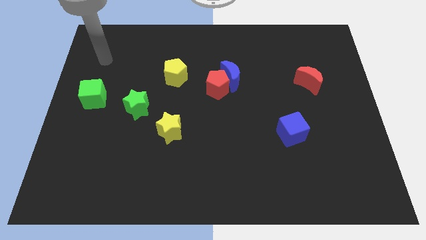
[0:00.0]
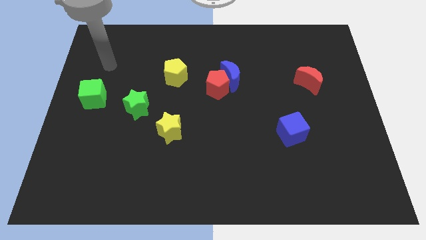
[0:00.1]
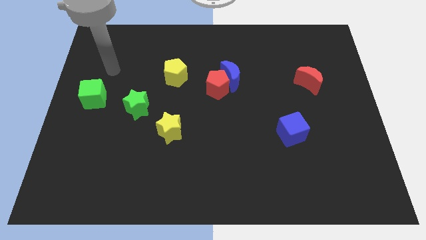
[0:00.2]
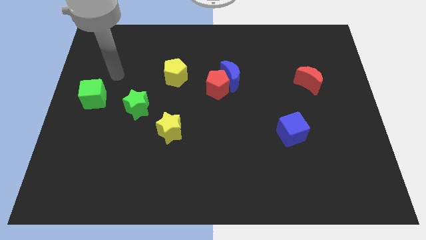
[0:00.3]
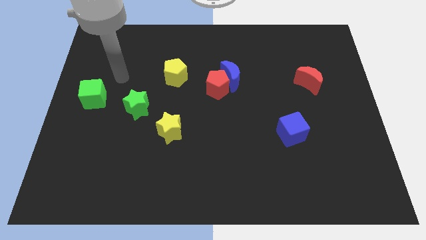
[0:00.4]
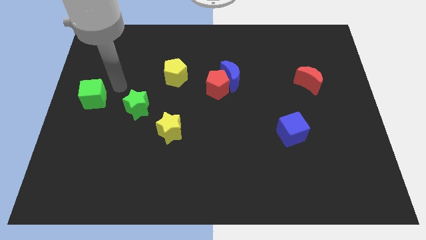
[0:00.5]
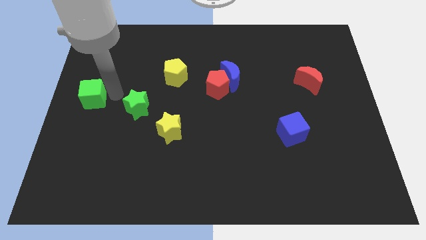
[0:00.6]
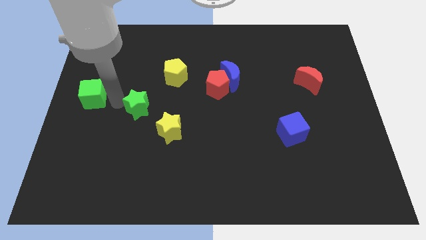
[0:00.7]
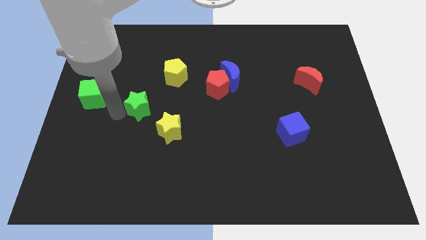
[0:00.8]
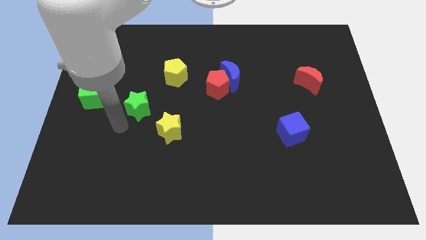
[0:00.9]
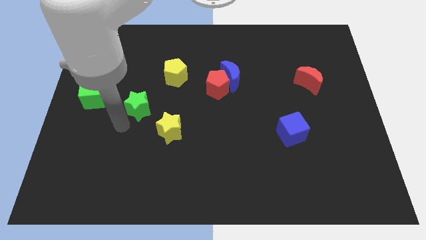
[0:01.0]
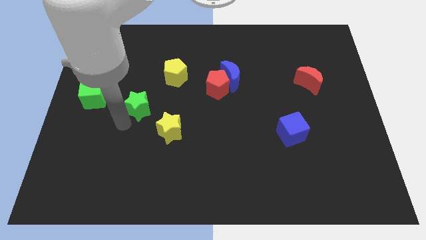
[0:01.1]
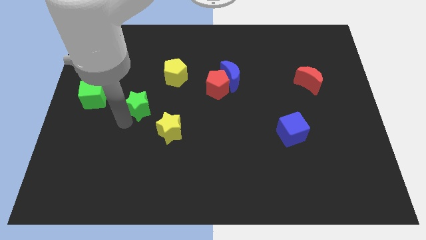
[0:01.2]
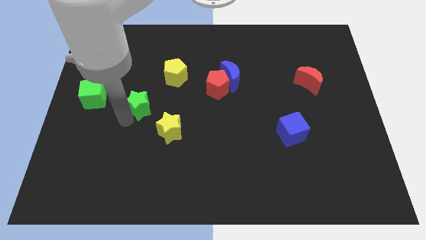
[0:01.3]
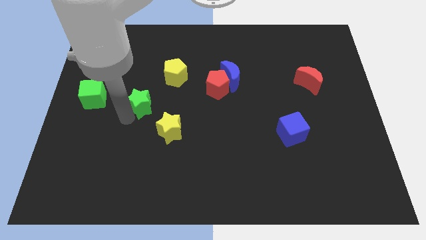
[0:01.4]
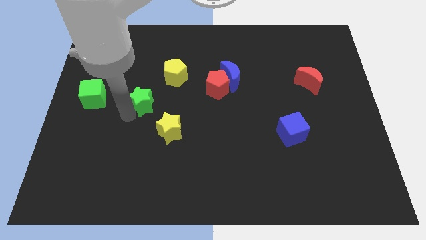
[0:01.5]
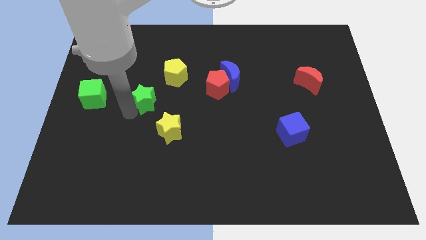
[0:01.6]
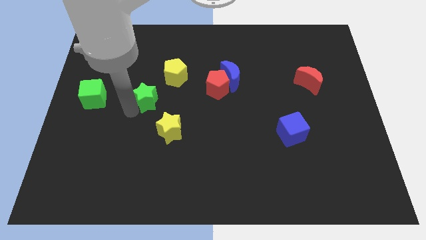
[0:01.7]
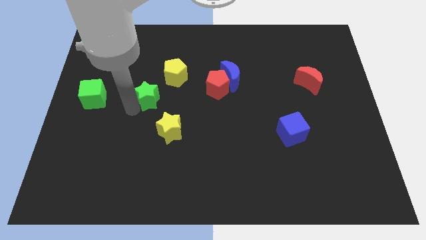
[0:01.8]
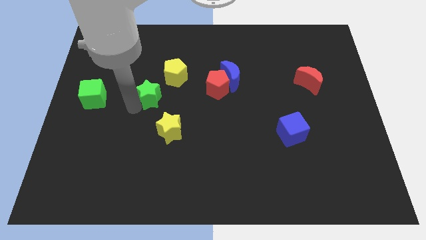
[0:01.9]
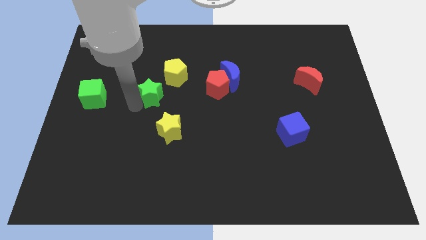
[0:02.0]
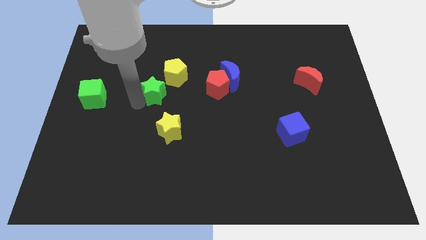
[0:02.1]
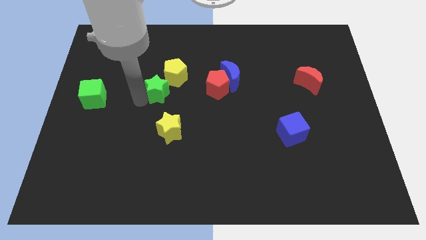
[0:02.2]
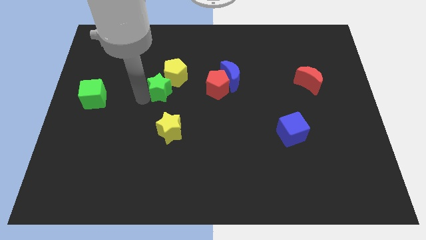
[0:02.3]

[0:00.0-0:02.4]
push the green star upwards and then to the right a little

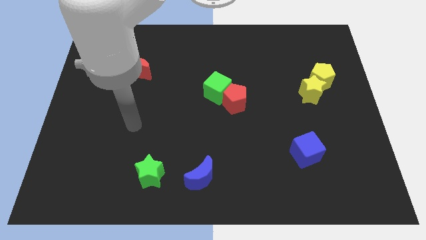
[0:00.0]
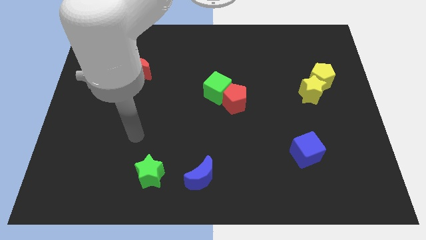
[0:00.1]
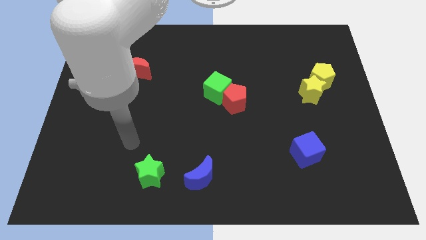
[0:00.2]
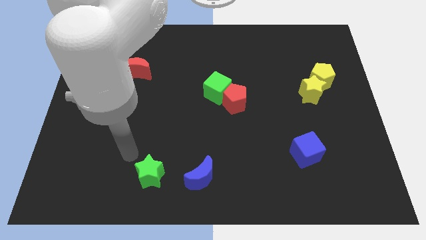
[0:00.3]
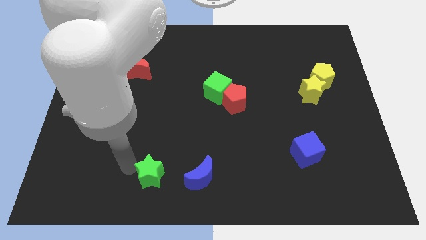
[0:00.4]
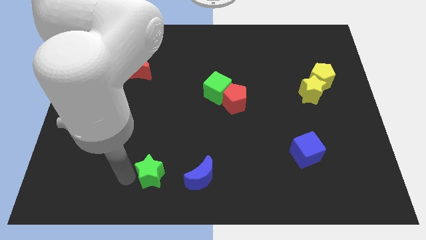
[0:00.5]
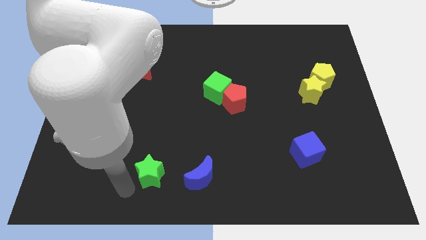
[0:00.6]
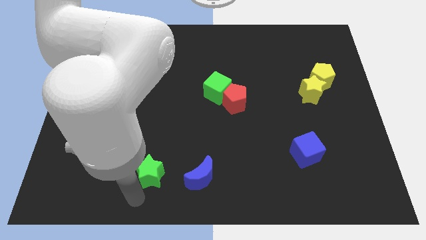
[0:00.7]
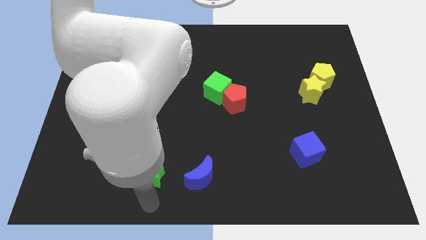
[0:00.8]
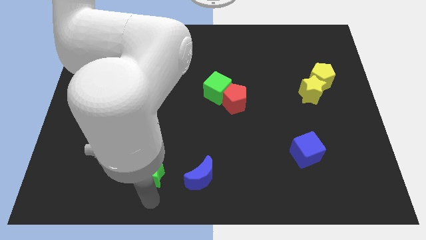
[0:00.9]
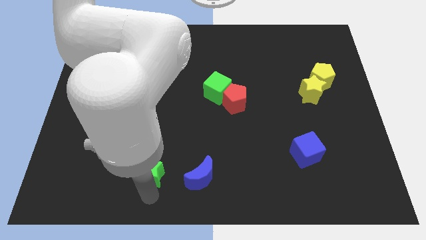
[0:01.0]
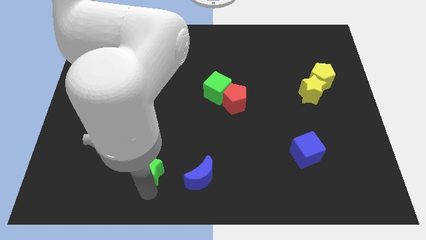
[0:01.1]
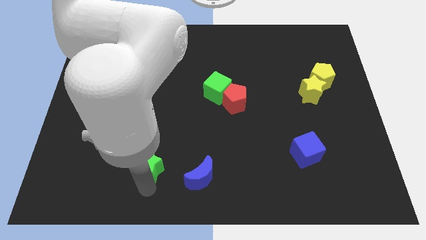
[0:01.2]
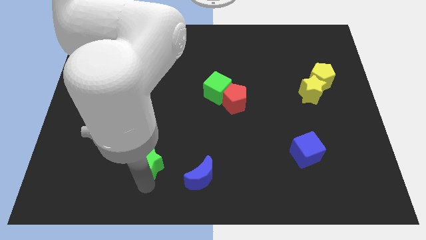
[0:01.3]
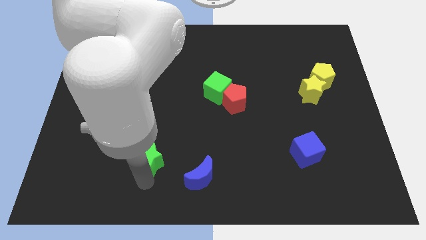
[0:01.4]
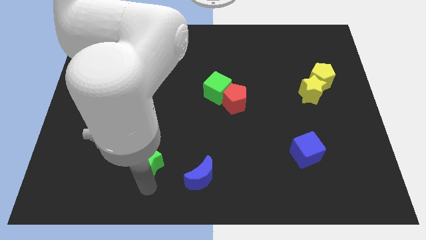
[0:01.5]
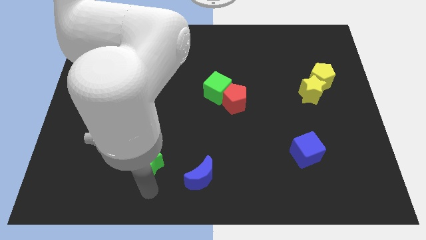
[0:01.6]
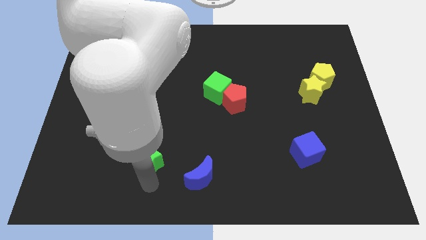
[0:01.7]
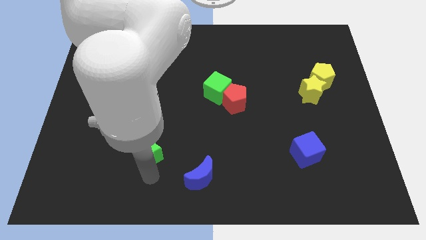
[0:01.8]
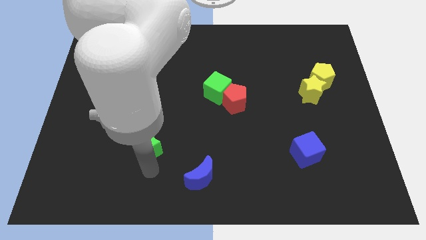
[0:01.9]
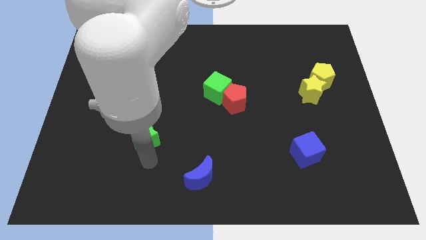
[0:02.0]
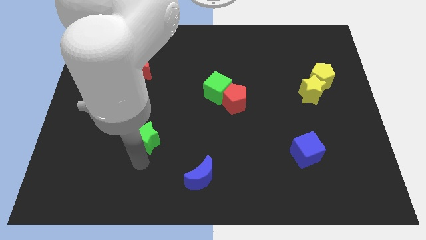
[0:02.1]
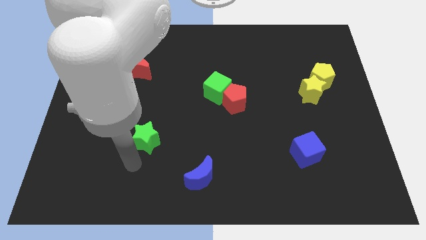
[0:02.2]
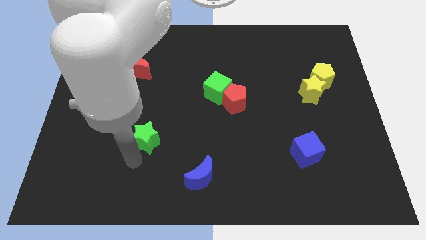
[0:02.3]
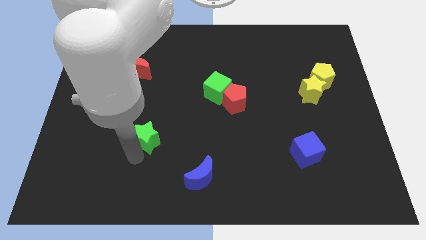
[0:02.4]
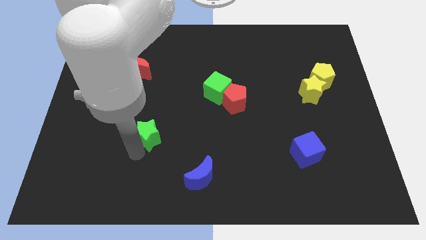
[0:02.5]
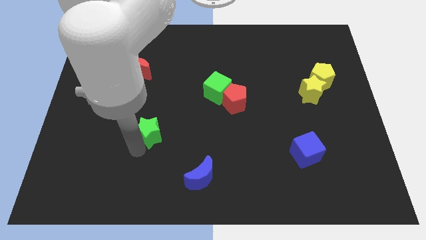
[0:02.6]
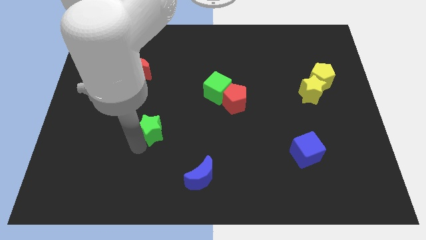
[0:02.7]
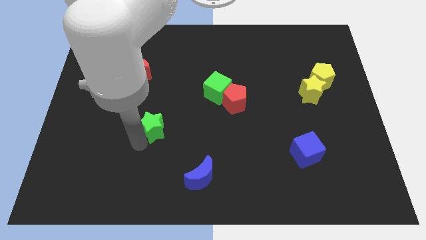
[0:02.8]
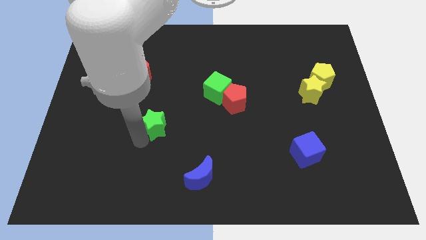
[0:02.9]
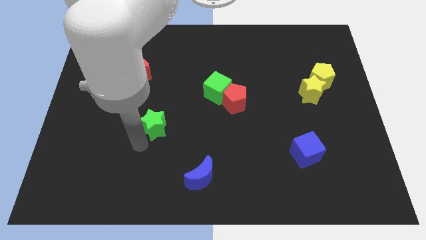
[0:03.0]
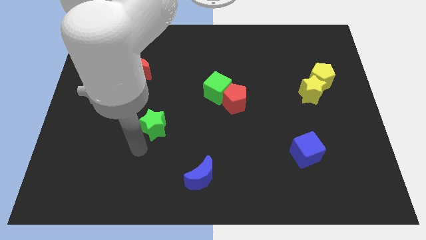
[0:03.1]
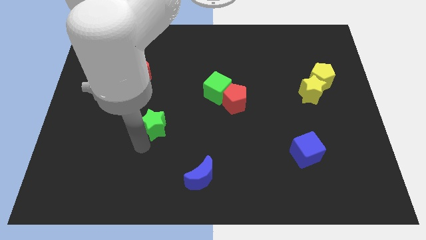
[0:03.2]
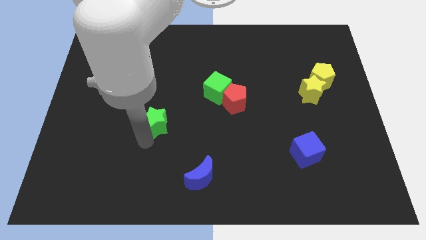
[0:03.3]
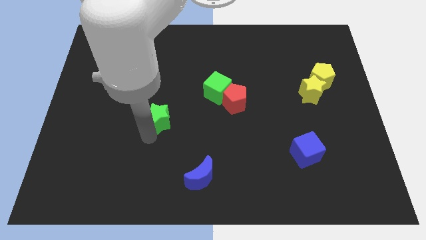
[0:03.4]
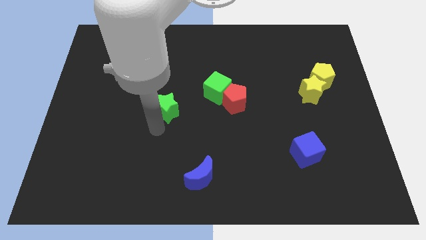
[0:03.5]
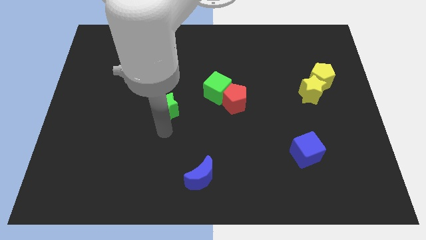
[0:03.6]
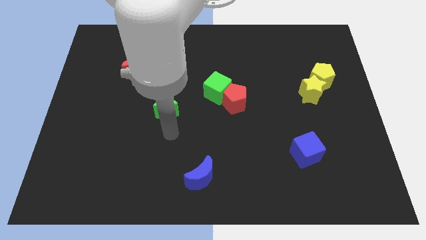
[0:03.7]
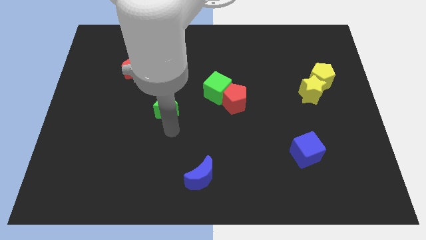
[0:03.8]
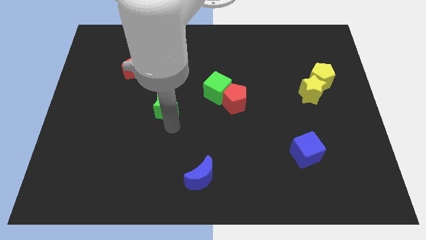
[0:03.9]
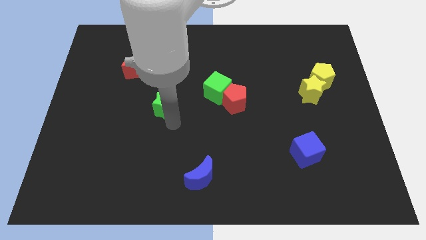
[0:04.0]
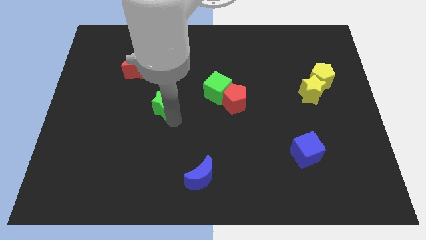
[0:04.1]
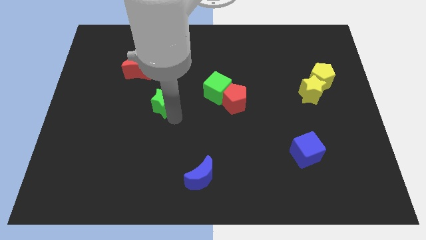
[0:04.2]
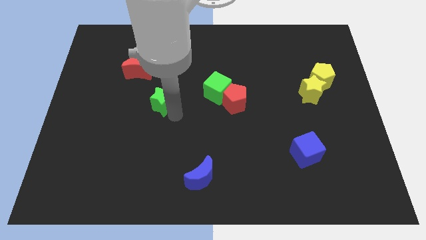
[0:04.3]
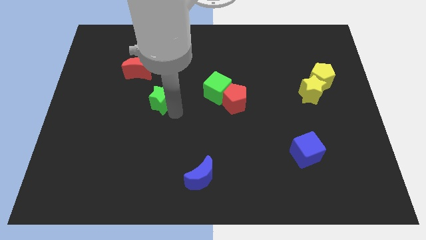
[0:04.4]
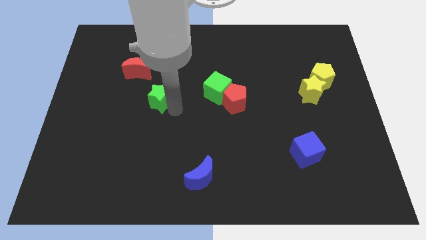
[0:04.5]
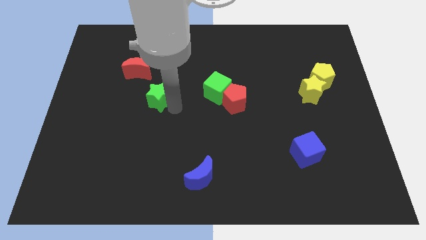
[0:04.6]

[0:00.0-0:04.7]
push the green star upwards

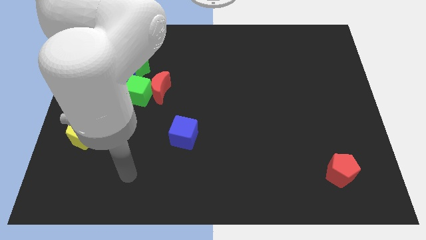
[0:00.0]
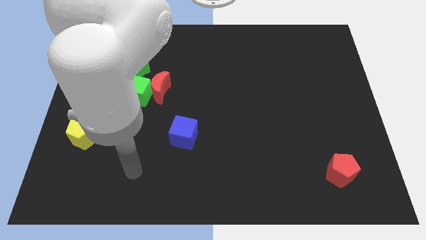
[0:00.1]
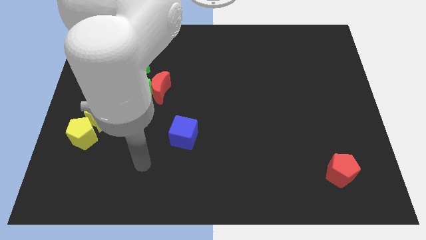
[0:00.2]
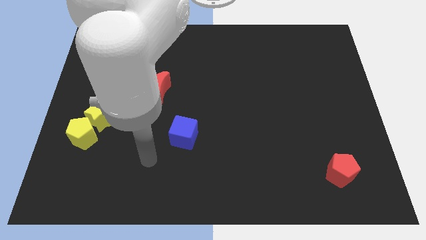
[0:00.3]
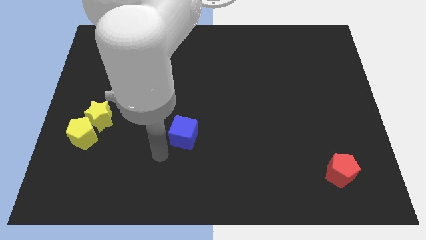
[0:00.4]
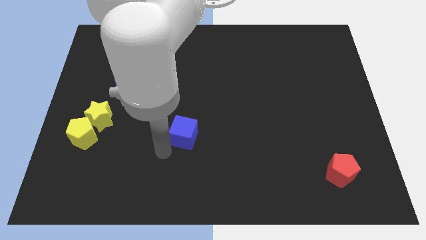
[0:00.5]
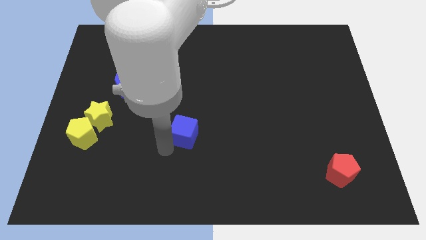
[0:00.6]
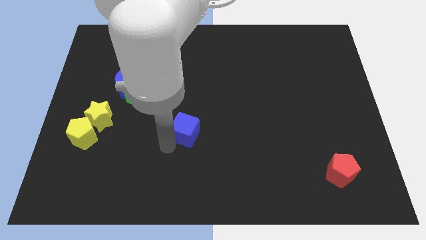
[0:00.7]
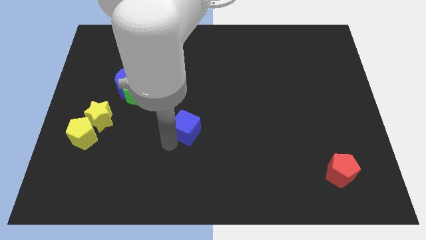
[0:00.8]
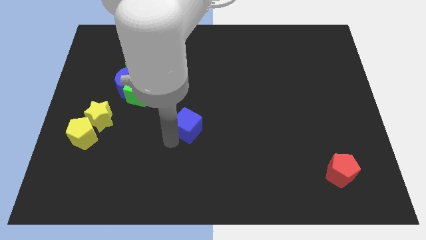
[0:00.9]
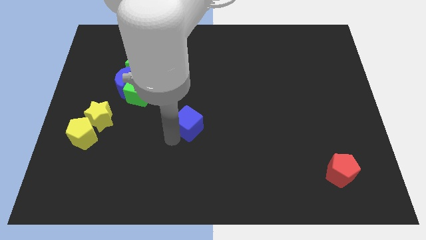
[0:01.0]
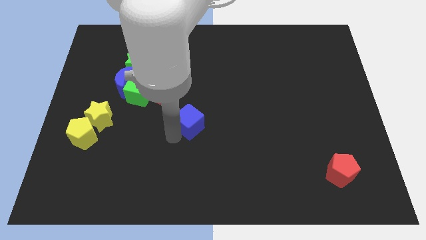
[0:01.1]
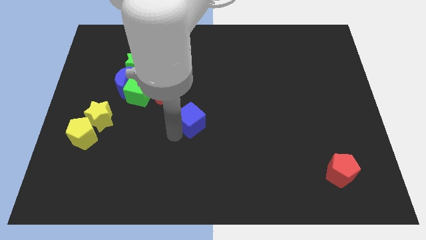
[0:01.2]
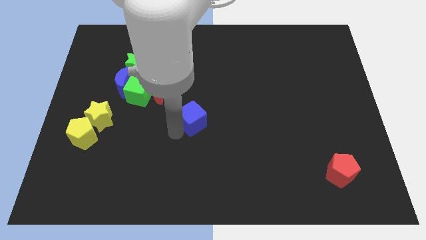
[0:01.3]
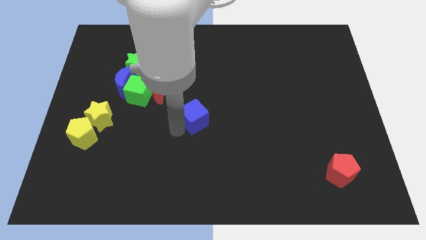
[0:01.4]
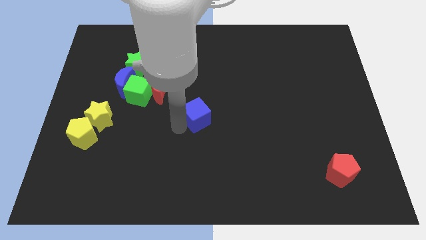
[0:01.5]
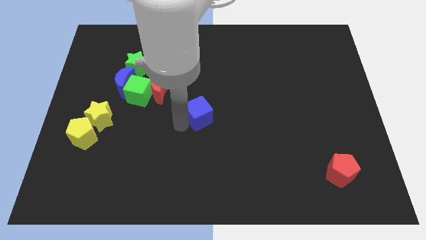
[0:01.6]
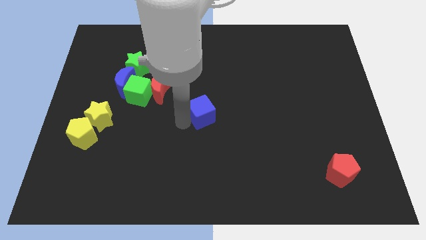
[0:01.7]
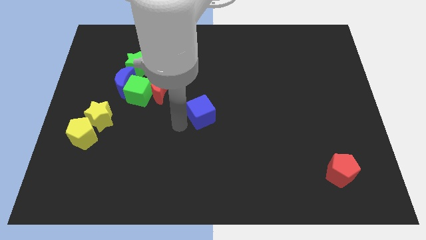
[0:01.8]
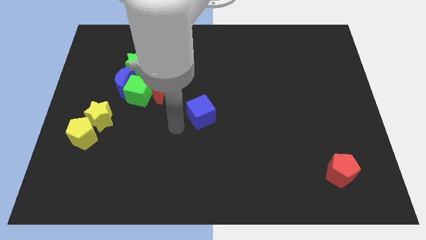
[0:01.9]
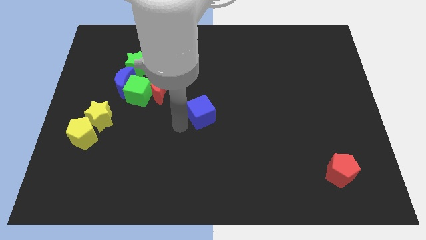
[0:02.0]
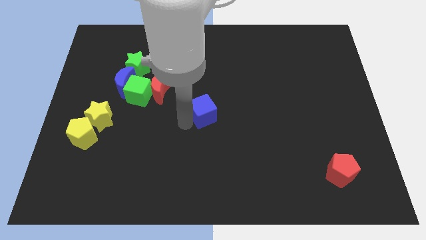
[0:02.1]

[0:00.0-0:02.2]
move the blue cube a little upwards and then right
